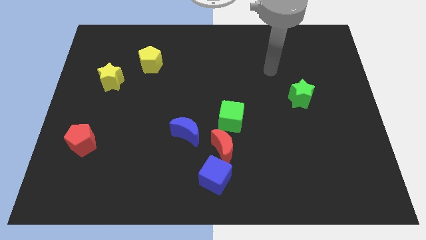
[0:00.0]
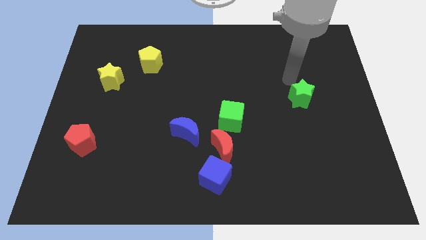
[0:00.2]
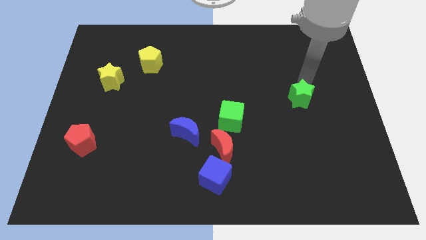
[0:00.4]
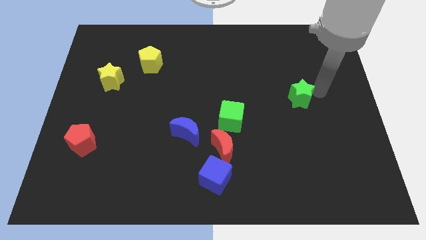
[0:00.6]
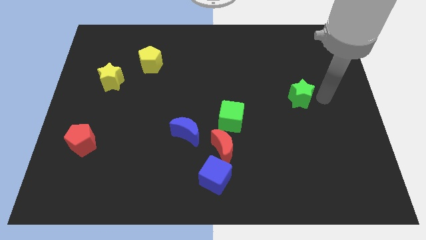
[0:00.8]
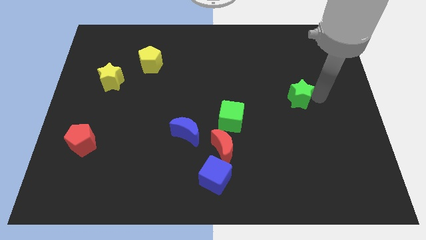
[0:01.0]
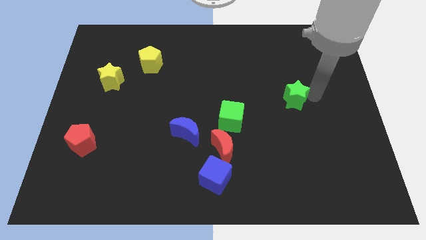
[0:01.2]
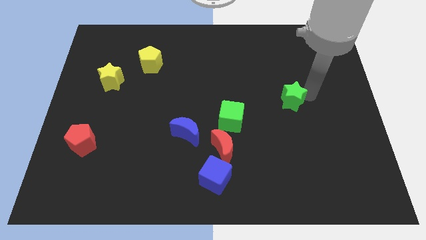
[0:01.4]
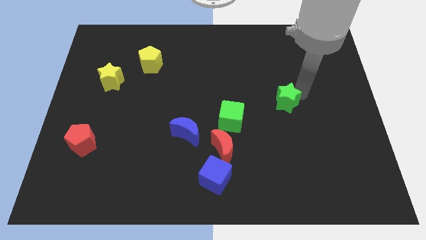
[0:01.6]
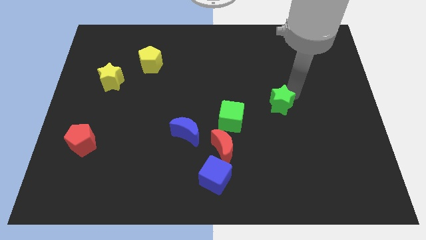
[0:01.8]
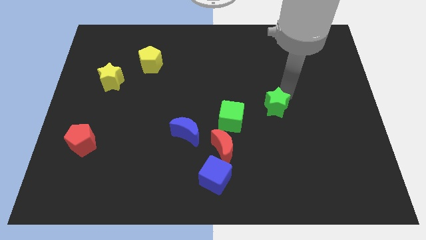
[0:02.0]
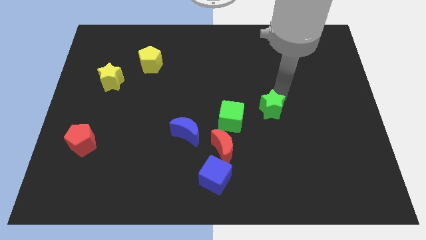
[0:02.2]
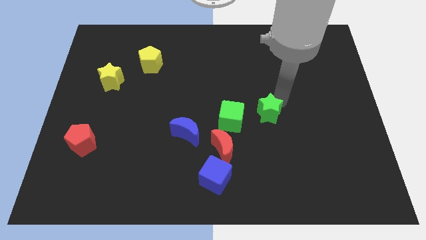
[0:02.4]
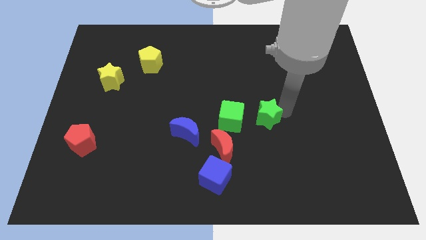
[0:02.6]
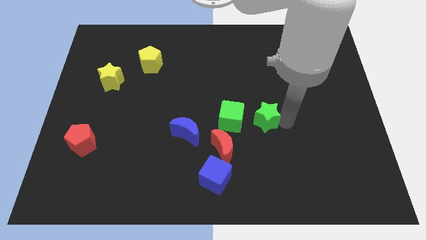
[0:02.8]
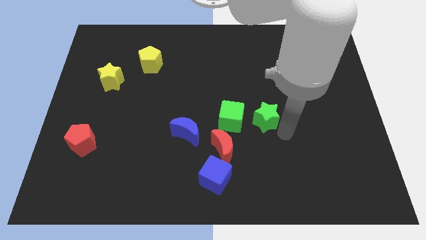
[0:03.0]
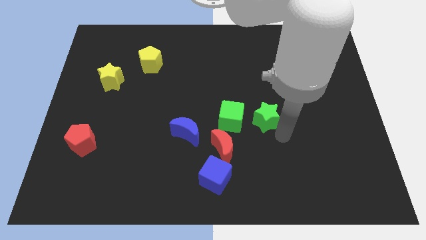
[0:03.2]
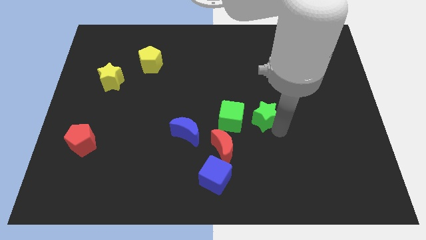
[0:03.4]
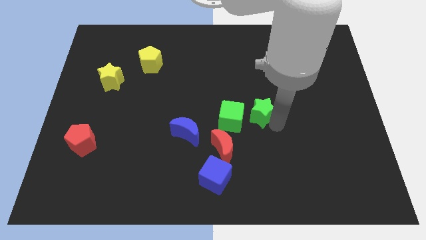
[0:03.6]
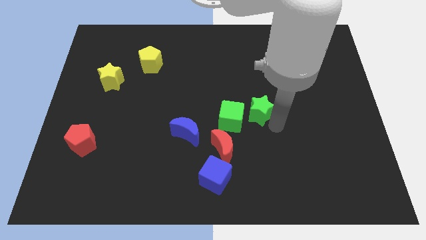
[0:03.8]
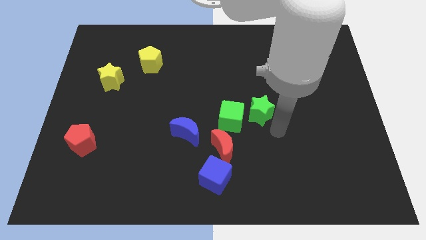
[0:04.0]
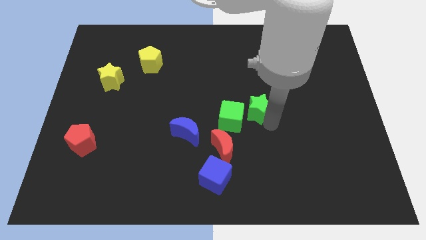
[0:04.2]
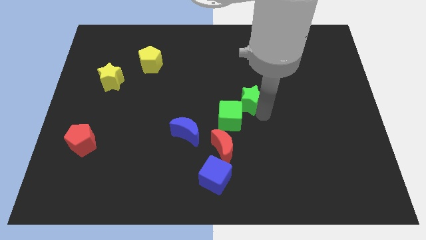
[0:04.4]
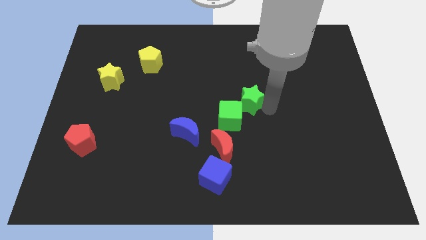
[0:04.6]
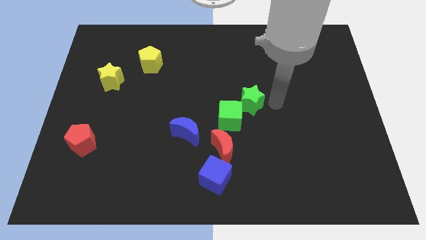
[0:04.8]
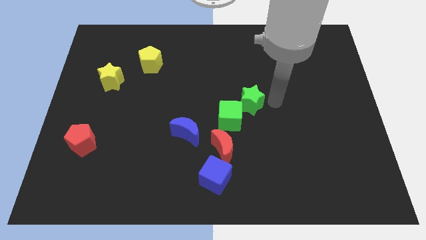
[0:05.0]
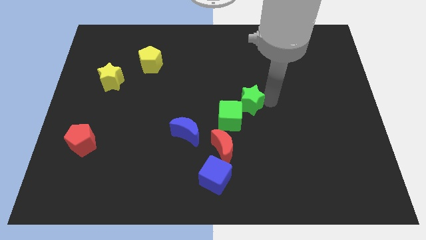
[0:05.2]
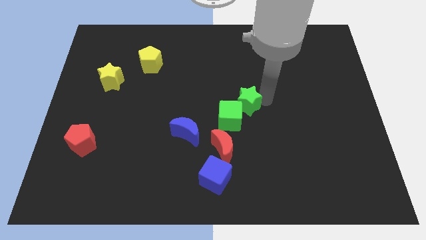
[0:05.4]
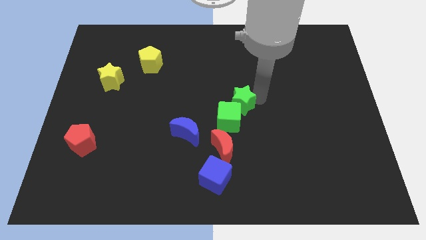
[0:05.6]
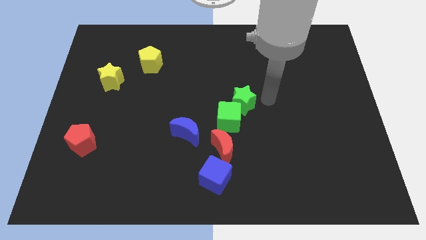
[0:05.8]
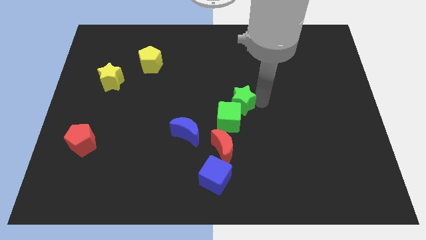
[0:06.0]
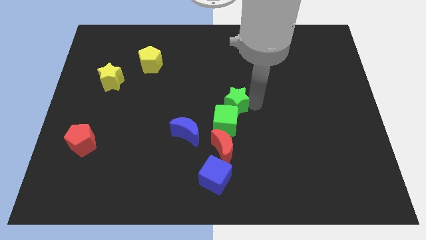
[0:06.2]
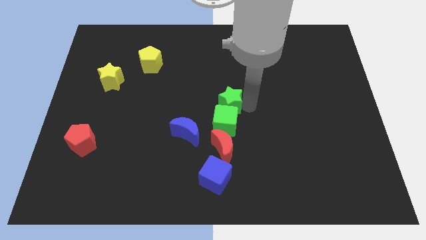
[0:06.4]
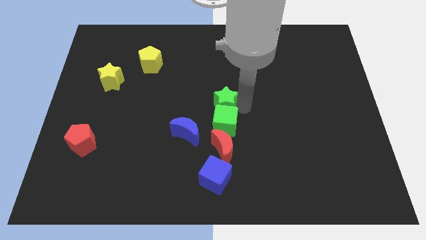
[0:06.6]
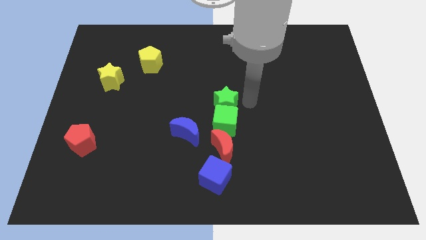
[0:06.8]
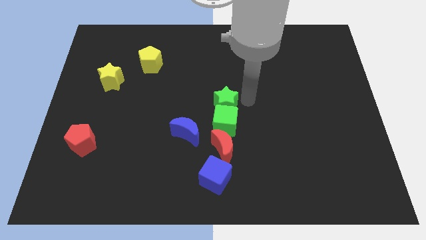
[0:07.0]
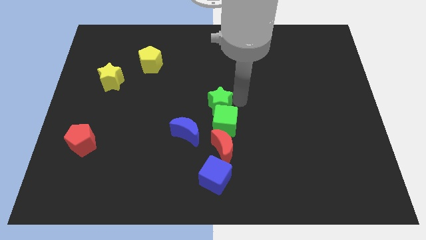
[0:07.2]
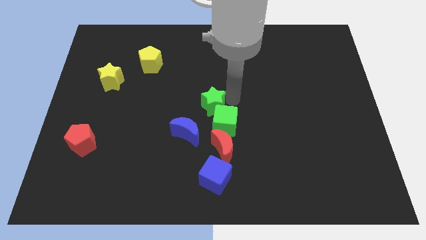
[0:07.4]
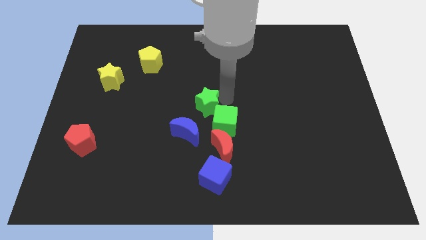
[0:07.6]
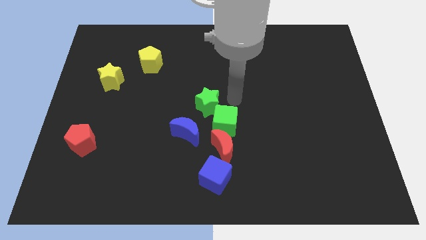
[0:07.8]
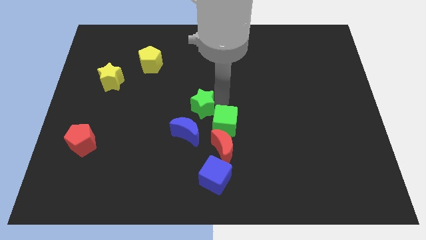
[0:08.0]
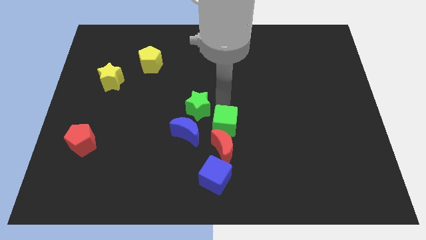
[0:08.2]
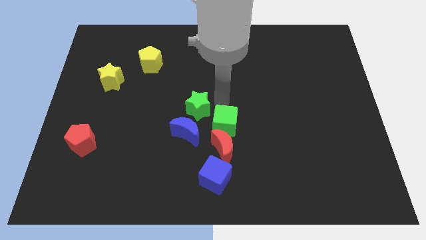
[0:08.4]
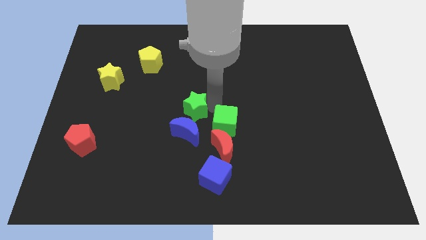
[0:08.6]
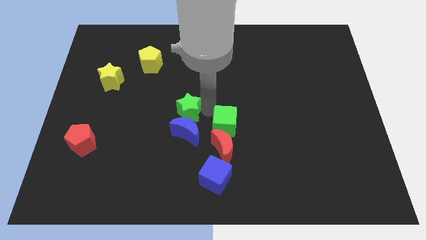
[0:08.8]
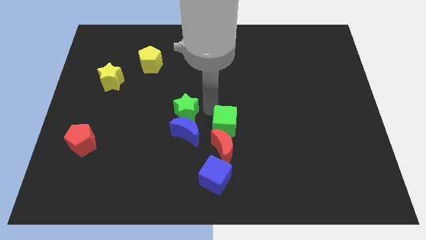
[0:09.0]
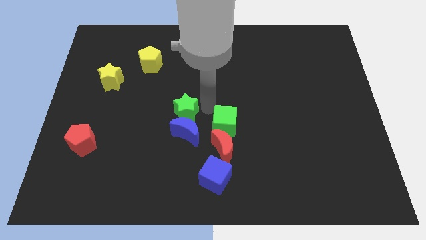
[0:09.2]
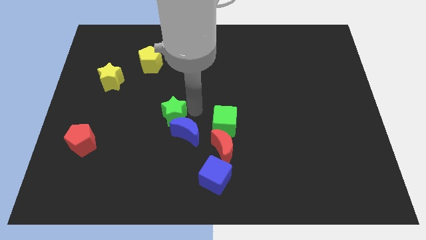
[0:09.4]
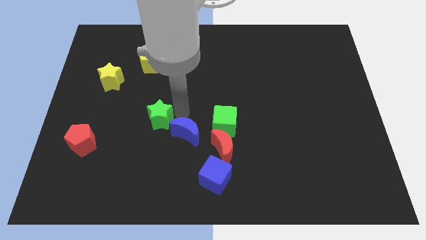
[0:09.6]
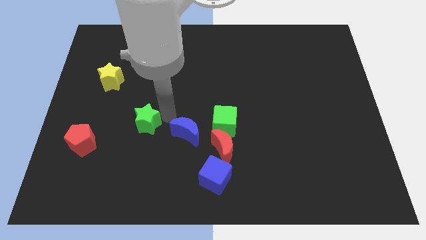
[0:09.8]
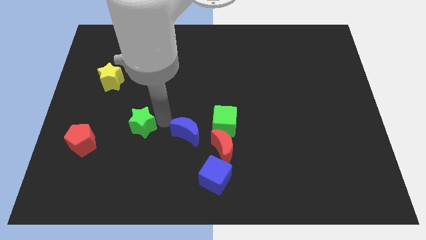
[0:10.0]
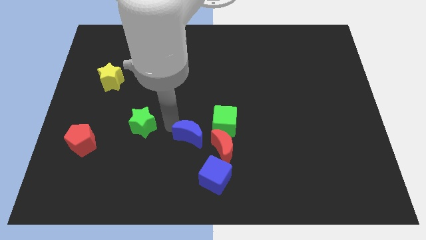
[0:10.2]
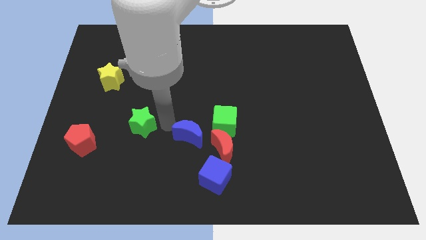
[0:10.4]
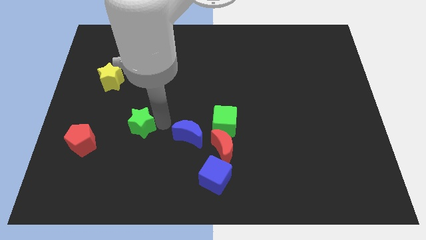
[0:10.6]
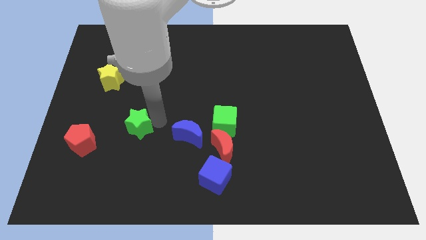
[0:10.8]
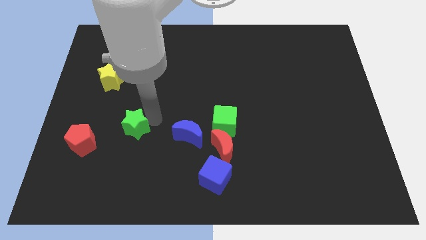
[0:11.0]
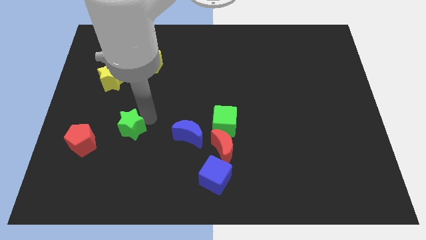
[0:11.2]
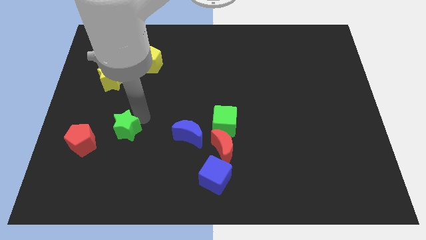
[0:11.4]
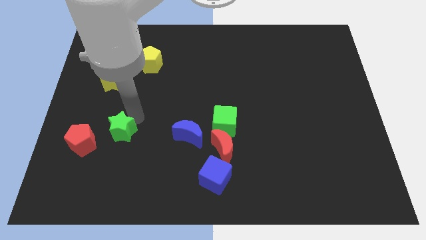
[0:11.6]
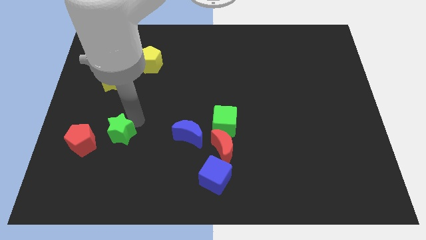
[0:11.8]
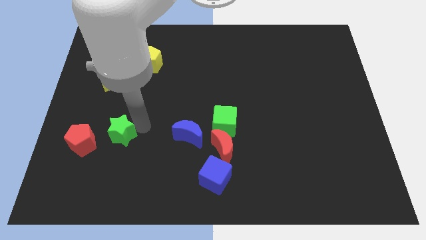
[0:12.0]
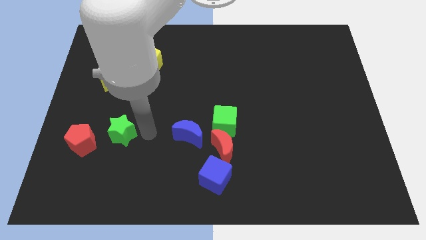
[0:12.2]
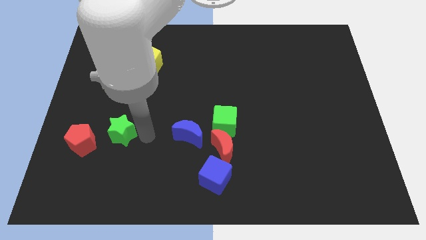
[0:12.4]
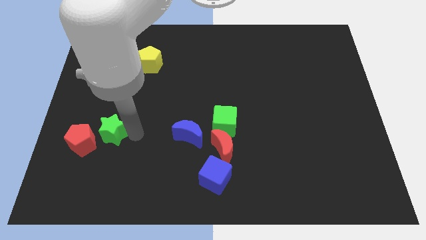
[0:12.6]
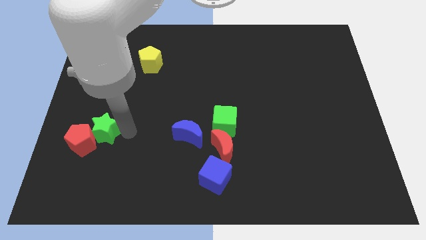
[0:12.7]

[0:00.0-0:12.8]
slide the green star close to the red pentagon

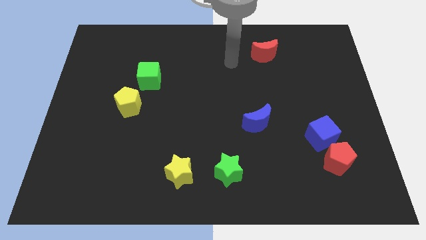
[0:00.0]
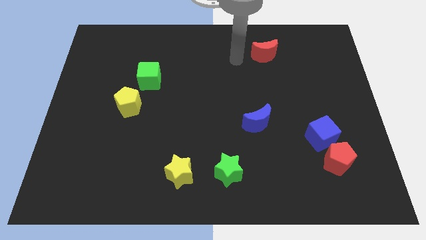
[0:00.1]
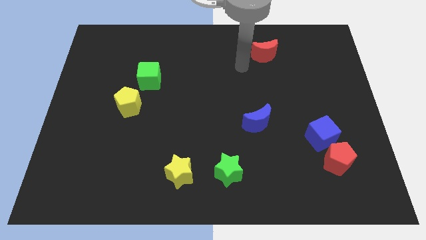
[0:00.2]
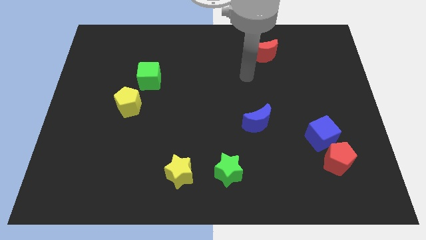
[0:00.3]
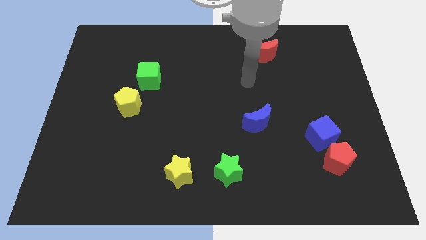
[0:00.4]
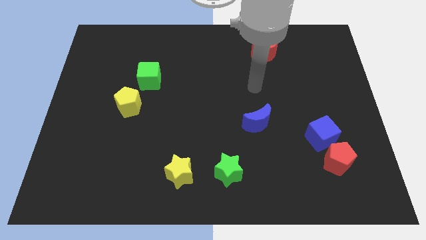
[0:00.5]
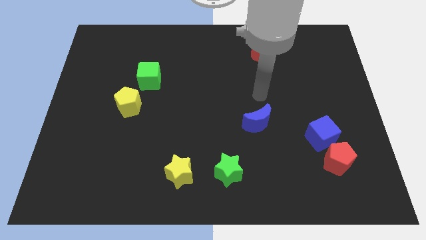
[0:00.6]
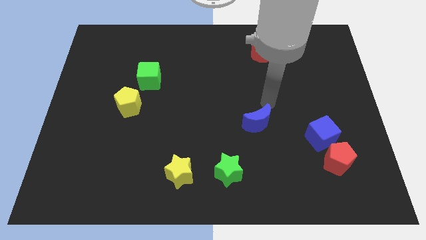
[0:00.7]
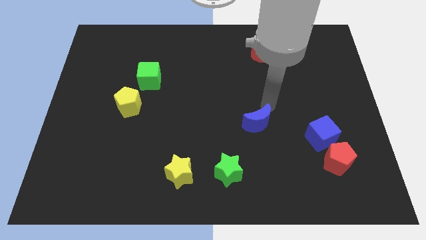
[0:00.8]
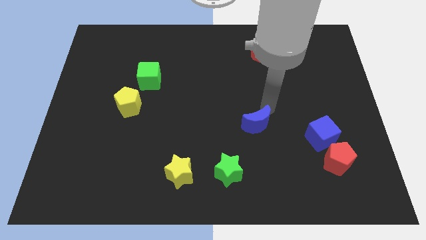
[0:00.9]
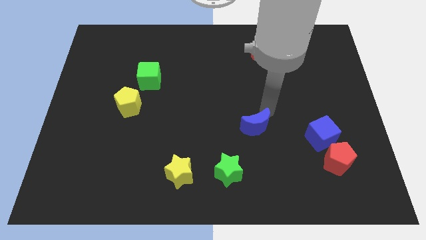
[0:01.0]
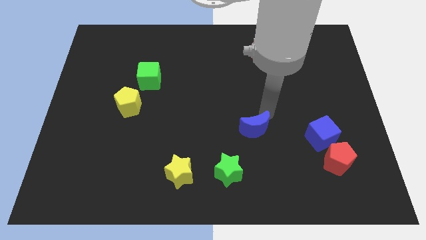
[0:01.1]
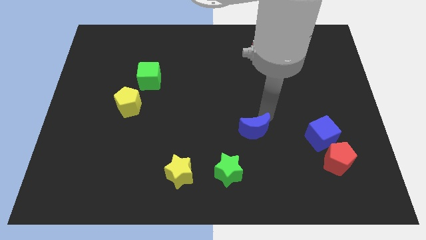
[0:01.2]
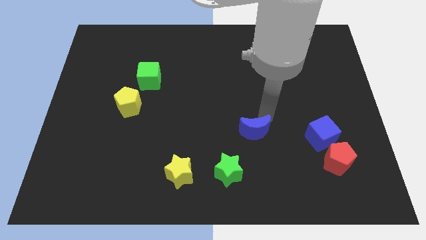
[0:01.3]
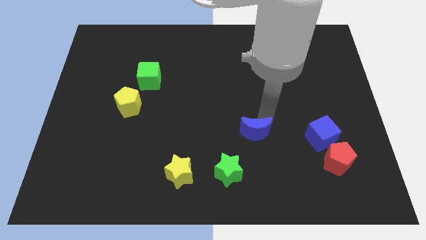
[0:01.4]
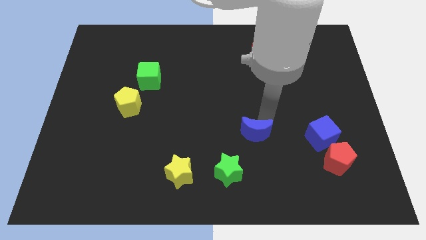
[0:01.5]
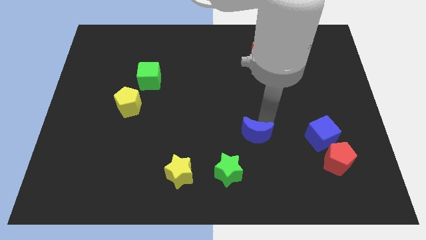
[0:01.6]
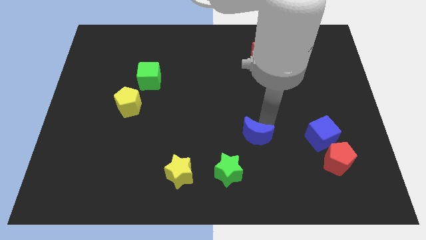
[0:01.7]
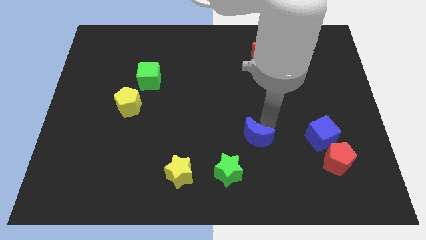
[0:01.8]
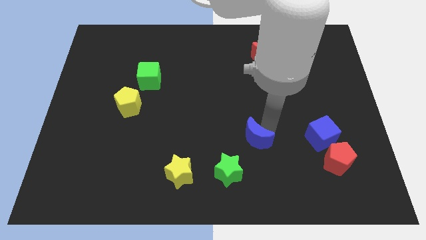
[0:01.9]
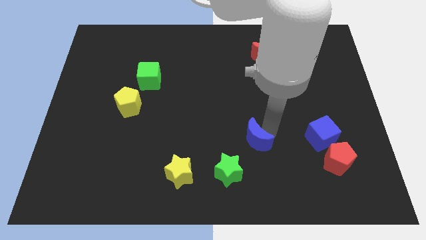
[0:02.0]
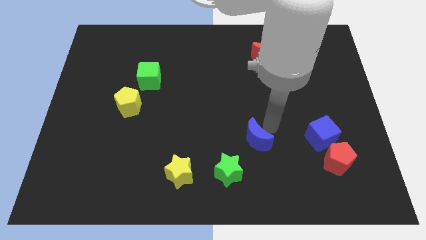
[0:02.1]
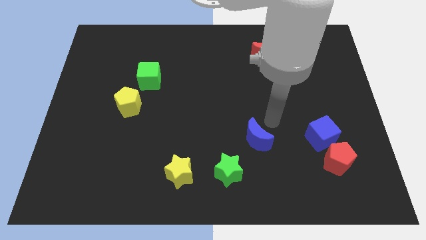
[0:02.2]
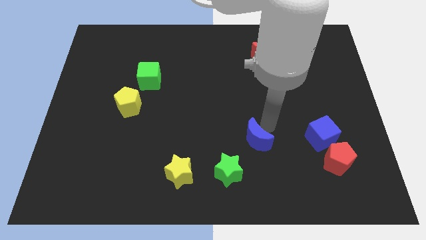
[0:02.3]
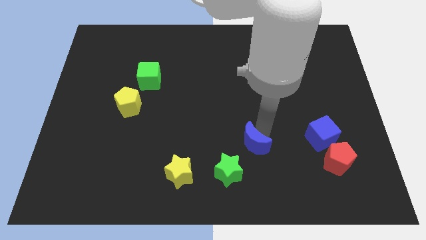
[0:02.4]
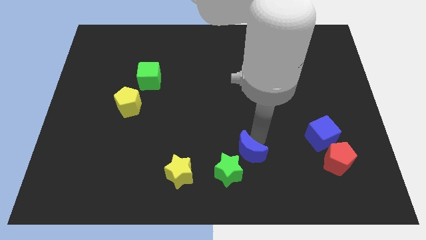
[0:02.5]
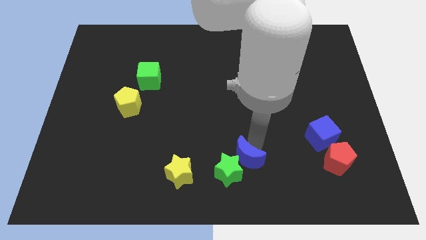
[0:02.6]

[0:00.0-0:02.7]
slide the blue moon to the green star
